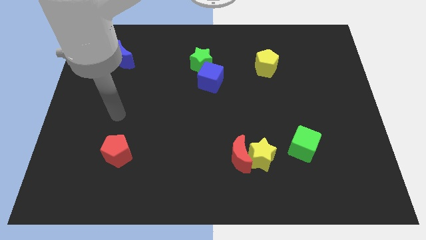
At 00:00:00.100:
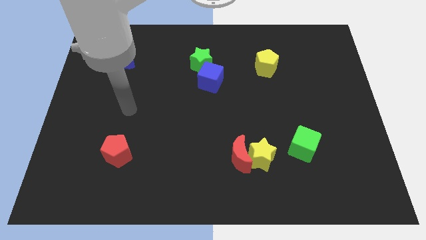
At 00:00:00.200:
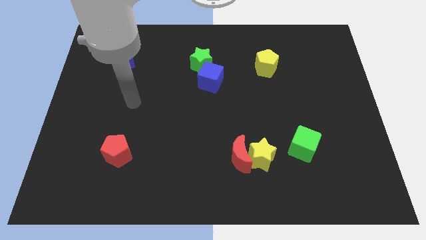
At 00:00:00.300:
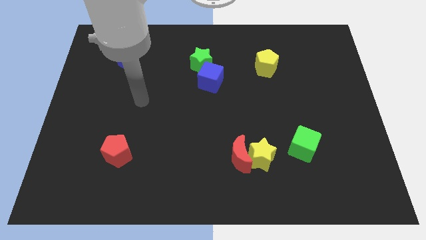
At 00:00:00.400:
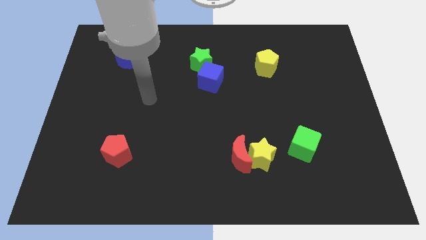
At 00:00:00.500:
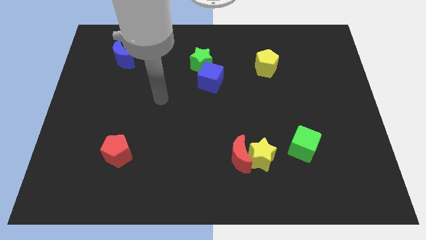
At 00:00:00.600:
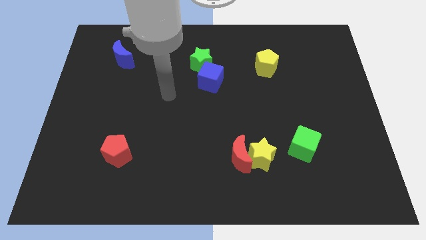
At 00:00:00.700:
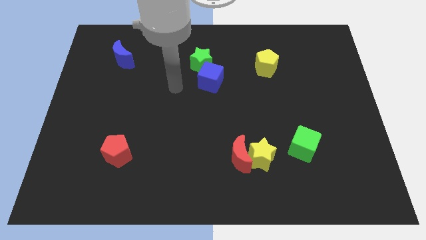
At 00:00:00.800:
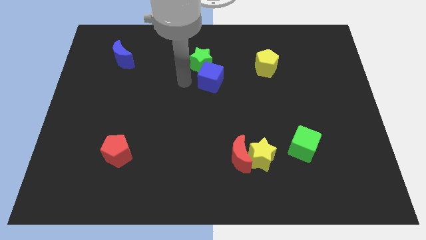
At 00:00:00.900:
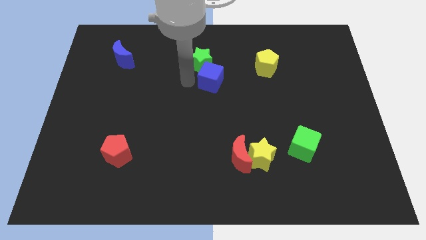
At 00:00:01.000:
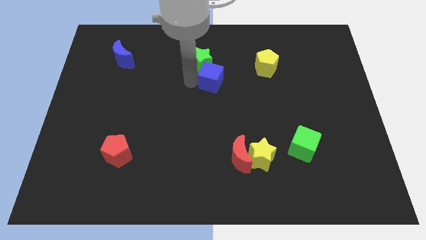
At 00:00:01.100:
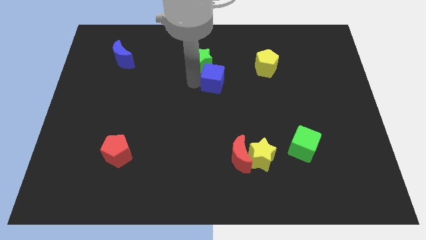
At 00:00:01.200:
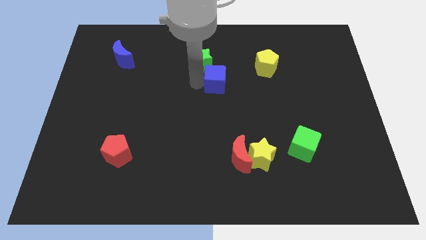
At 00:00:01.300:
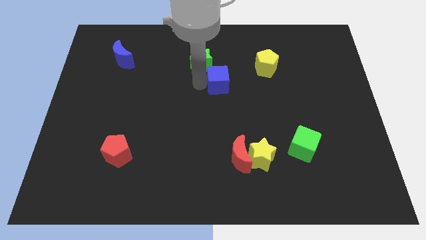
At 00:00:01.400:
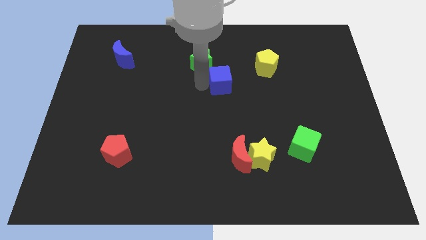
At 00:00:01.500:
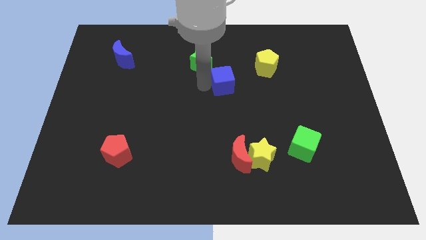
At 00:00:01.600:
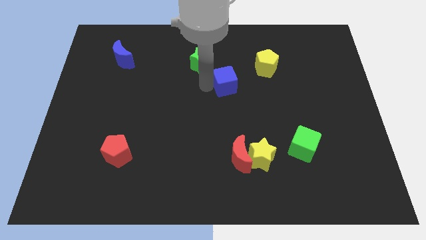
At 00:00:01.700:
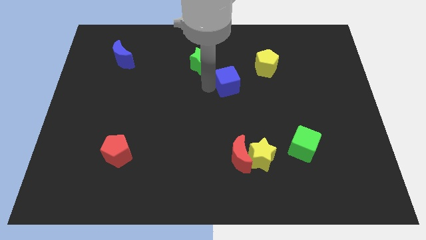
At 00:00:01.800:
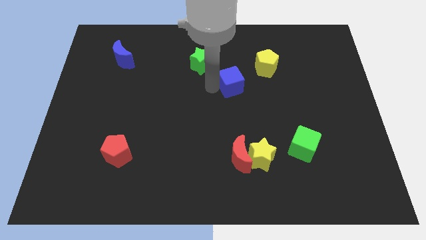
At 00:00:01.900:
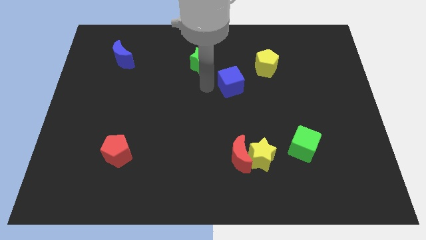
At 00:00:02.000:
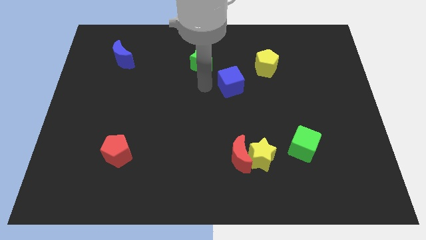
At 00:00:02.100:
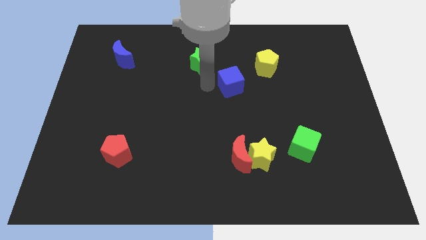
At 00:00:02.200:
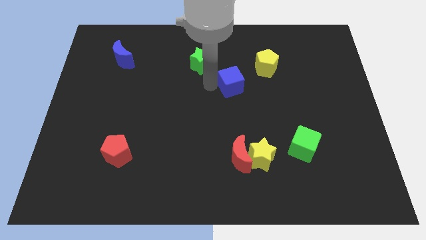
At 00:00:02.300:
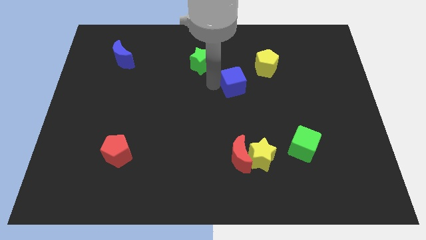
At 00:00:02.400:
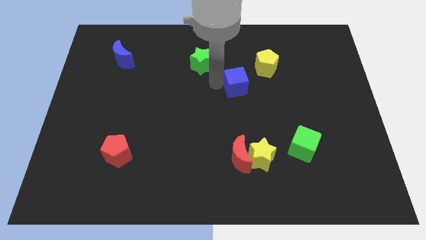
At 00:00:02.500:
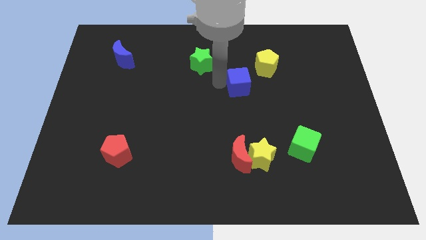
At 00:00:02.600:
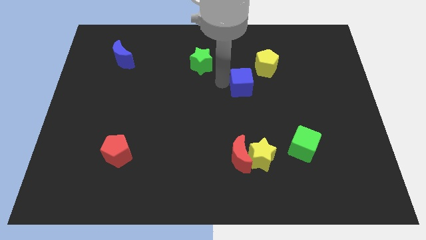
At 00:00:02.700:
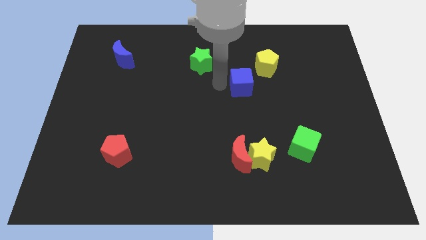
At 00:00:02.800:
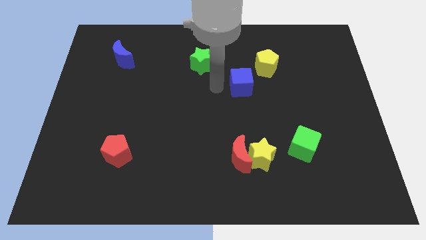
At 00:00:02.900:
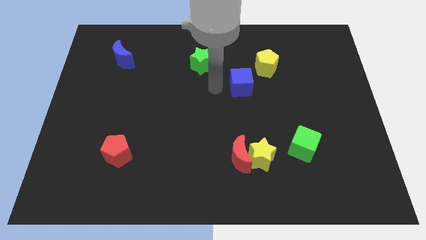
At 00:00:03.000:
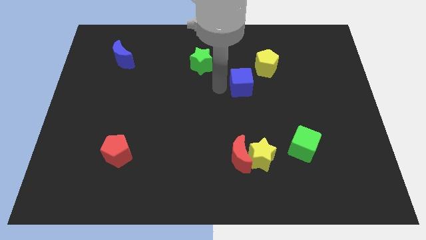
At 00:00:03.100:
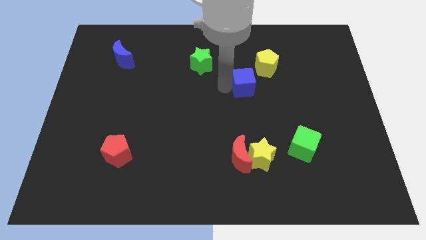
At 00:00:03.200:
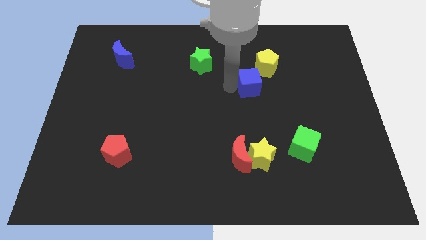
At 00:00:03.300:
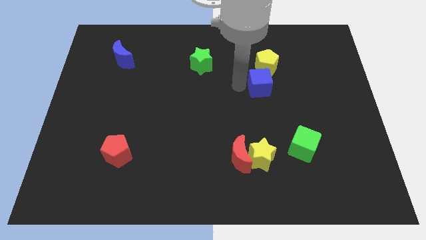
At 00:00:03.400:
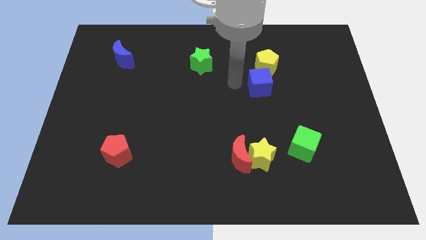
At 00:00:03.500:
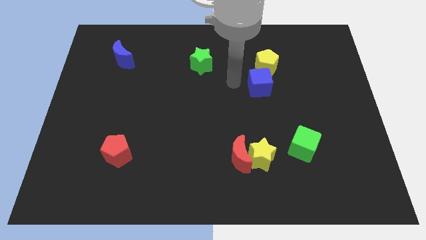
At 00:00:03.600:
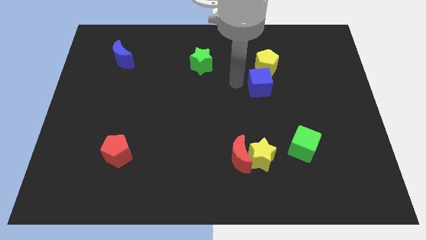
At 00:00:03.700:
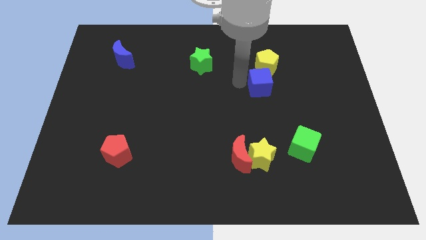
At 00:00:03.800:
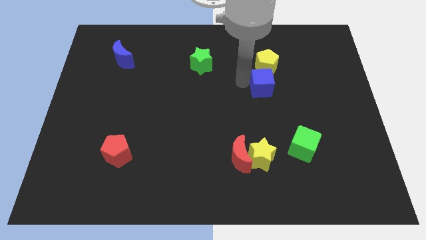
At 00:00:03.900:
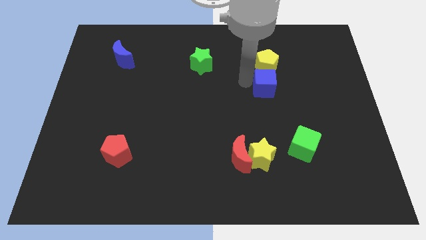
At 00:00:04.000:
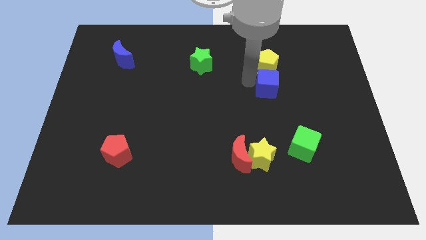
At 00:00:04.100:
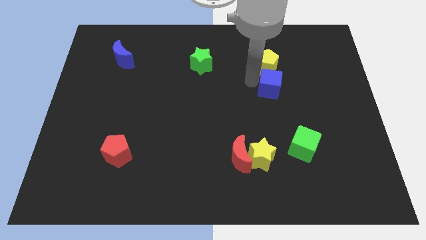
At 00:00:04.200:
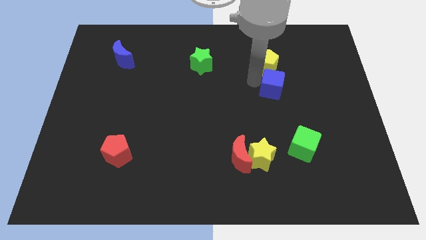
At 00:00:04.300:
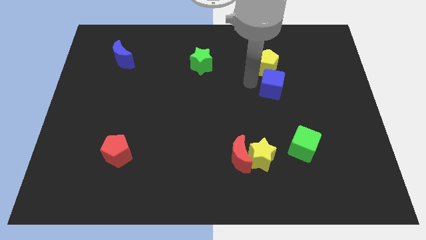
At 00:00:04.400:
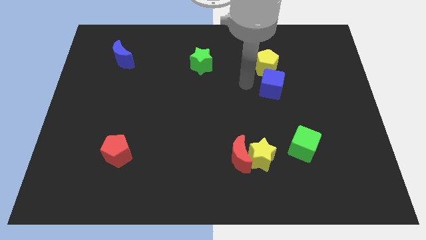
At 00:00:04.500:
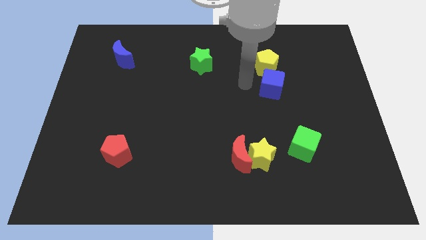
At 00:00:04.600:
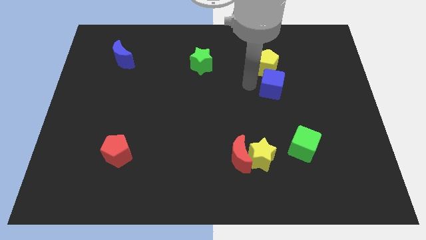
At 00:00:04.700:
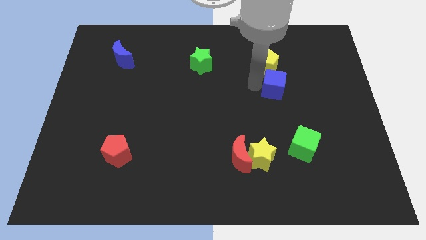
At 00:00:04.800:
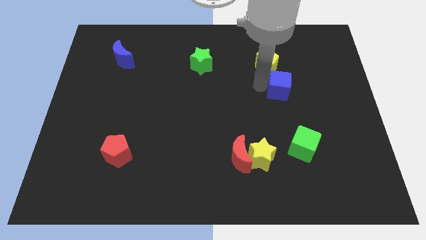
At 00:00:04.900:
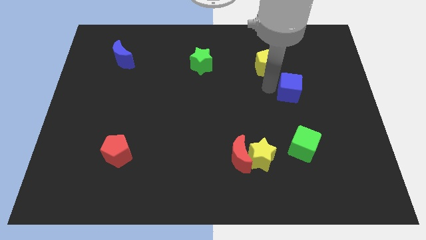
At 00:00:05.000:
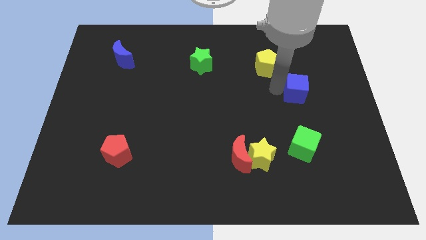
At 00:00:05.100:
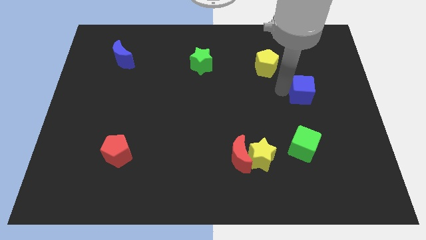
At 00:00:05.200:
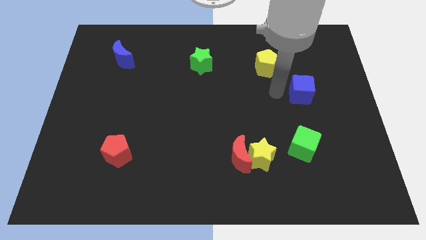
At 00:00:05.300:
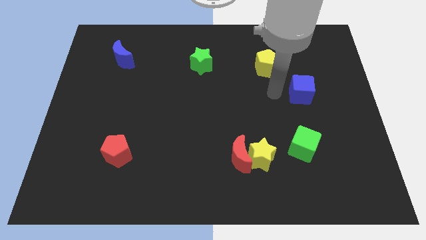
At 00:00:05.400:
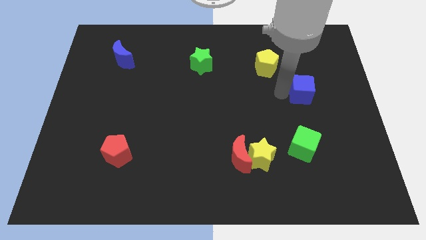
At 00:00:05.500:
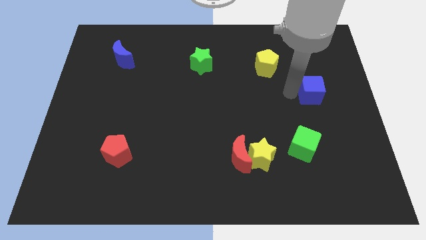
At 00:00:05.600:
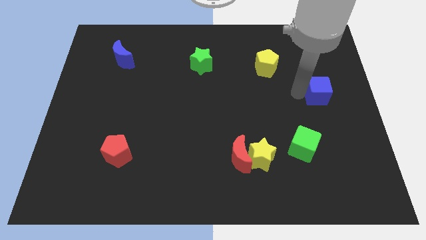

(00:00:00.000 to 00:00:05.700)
push the blue cube to the right side of the board
